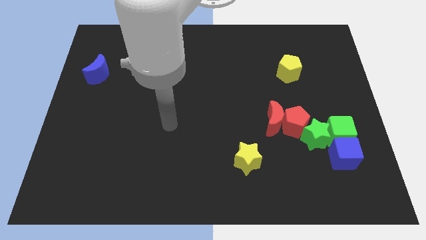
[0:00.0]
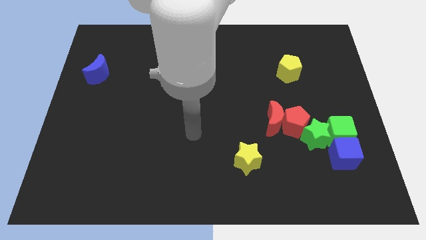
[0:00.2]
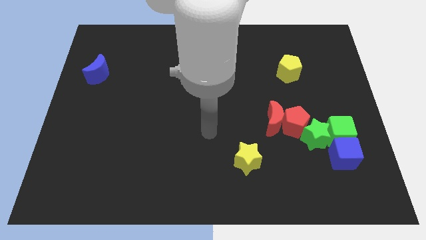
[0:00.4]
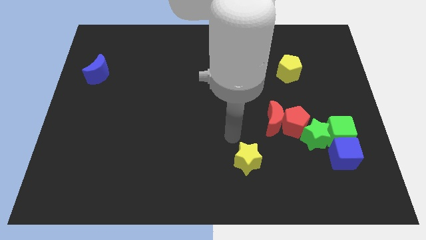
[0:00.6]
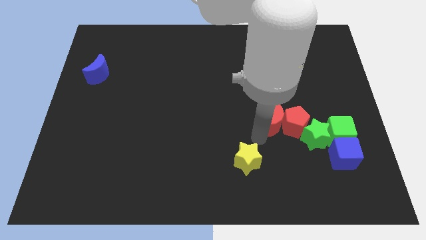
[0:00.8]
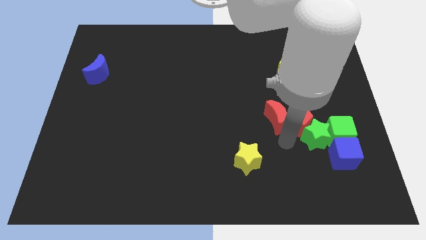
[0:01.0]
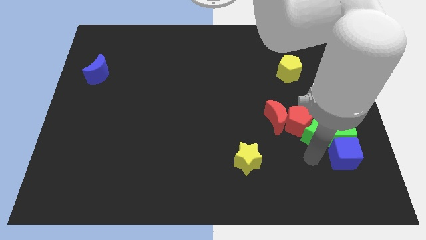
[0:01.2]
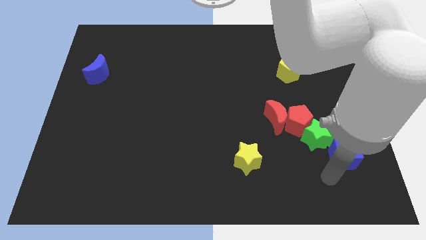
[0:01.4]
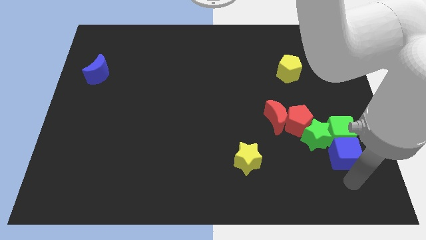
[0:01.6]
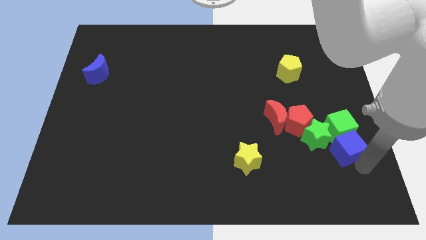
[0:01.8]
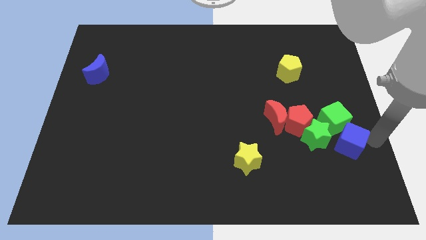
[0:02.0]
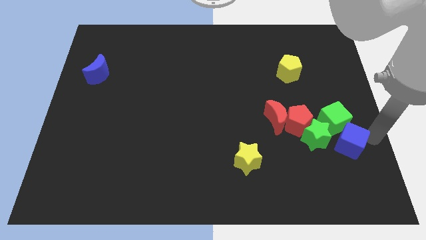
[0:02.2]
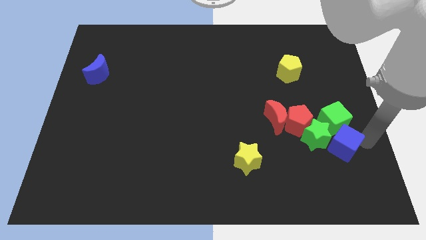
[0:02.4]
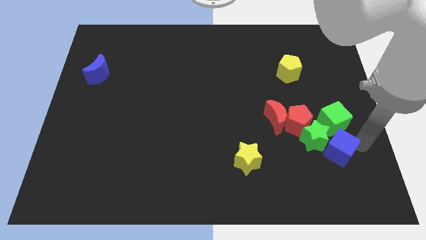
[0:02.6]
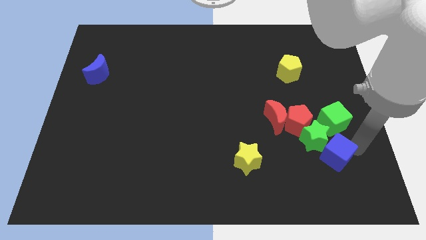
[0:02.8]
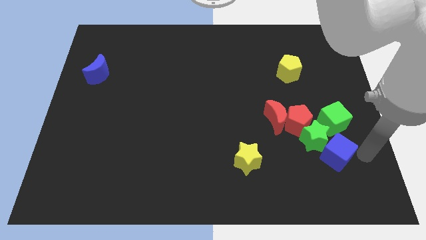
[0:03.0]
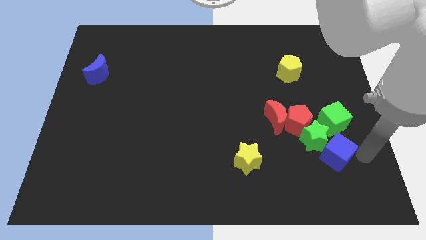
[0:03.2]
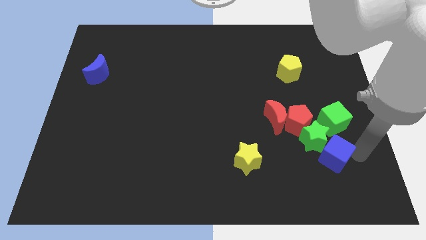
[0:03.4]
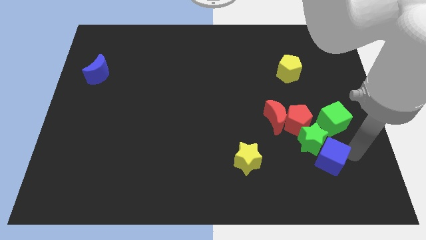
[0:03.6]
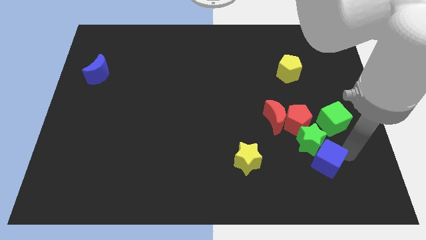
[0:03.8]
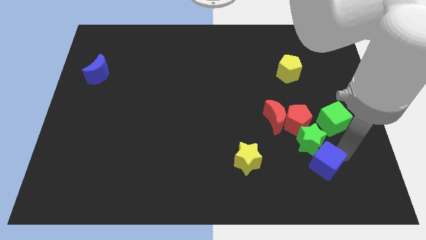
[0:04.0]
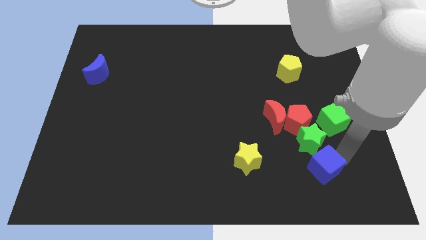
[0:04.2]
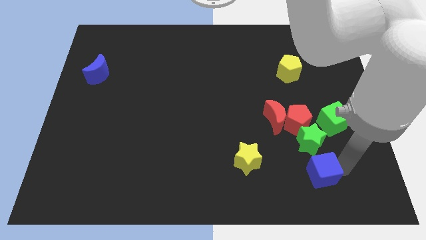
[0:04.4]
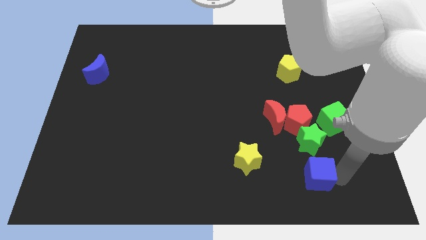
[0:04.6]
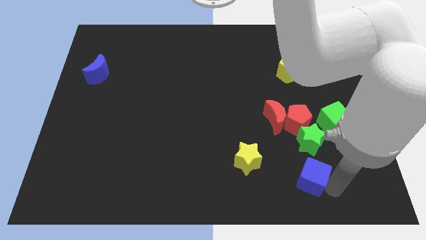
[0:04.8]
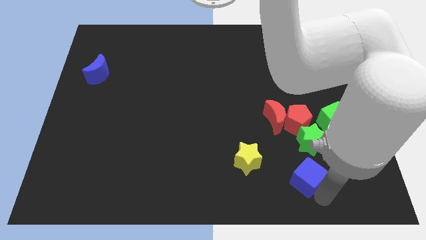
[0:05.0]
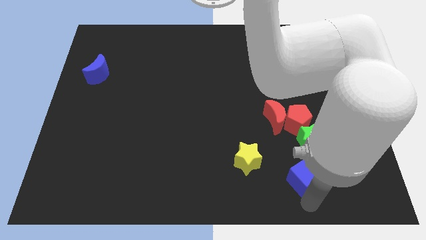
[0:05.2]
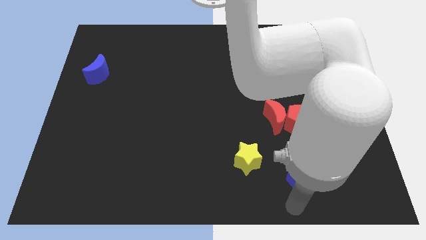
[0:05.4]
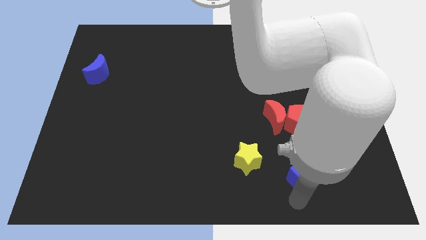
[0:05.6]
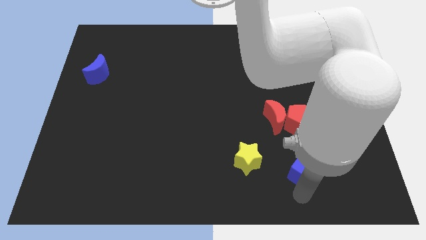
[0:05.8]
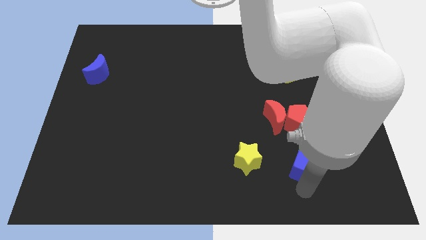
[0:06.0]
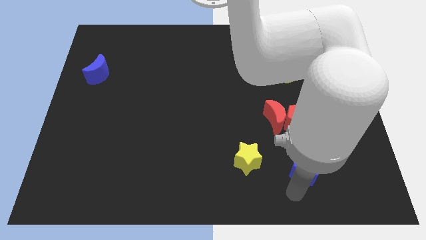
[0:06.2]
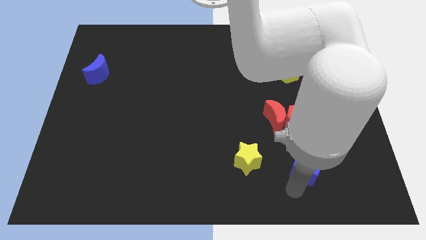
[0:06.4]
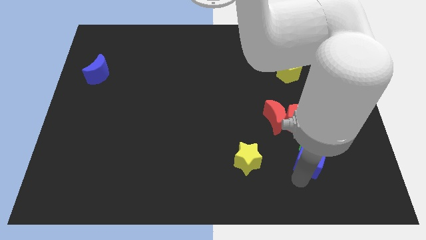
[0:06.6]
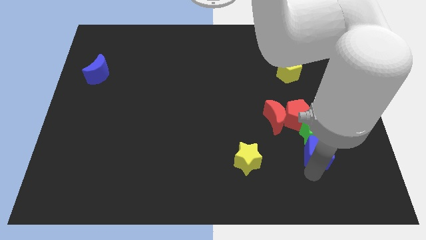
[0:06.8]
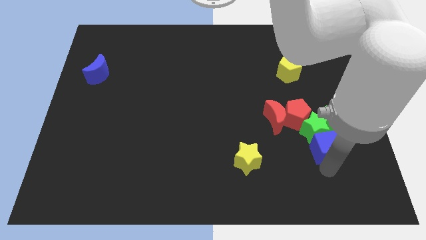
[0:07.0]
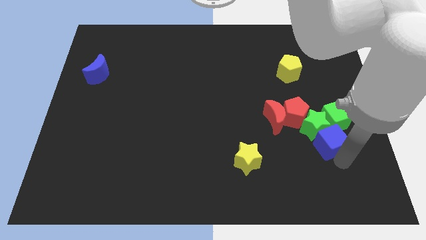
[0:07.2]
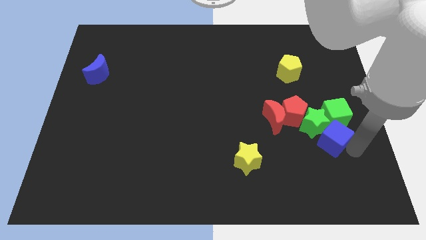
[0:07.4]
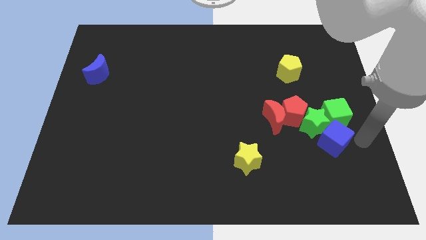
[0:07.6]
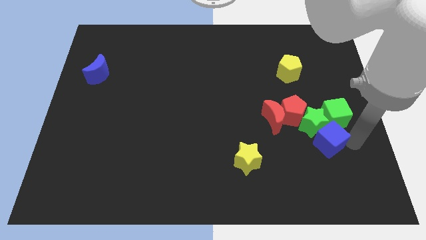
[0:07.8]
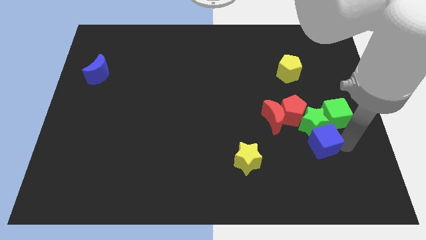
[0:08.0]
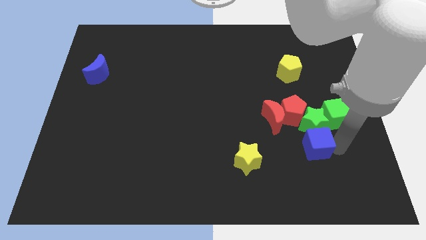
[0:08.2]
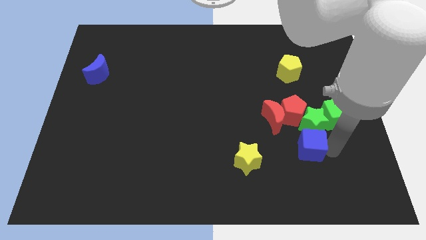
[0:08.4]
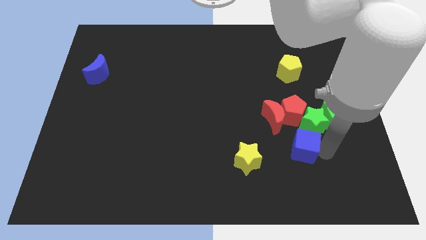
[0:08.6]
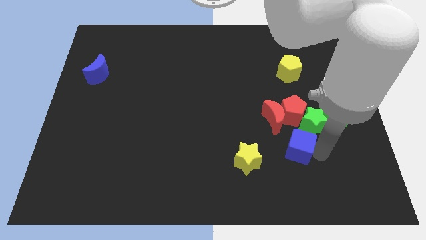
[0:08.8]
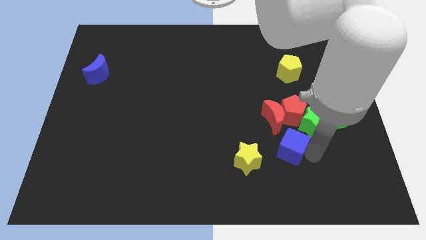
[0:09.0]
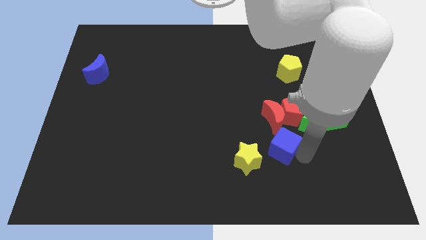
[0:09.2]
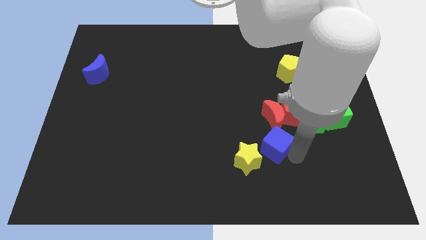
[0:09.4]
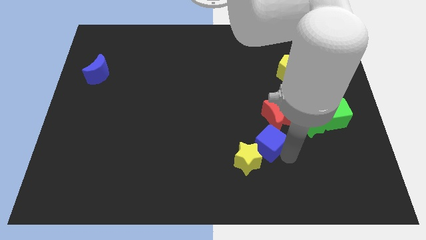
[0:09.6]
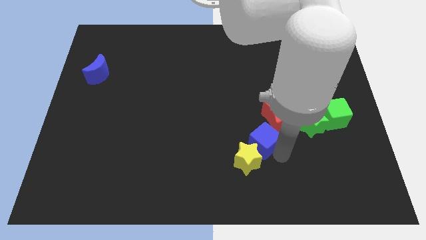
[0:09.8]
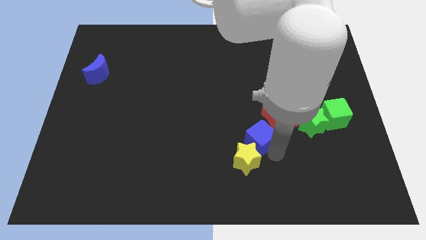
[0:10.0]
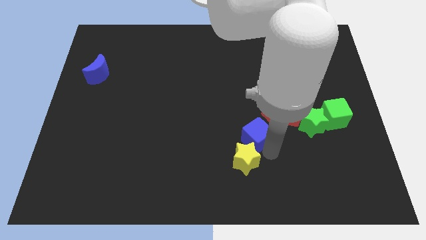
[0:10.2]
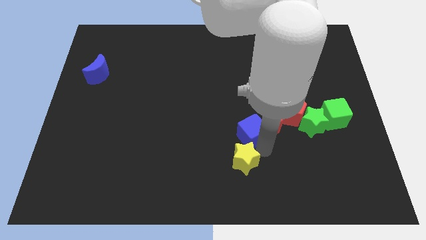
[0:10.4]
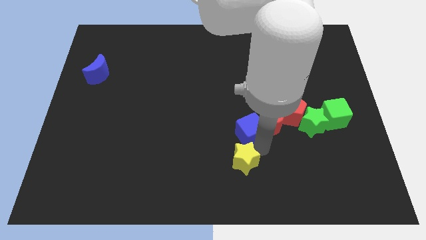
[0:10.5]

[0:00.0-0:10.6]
push the blue cube to the middle

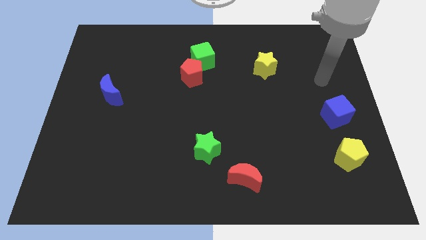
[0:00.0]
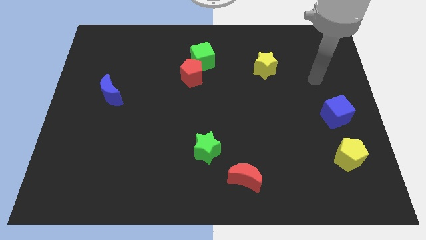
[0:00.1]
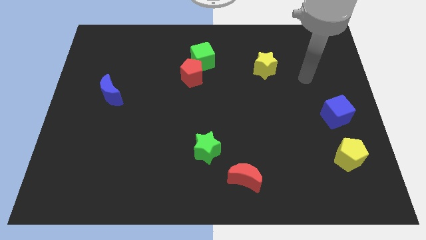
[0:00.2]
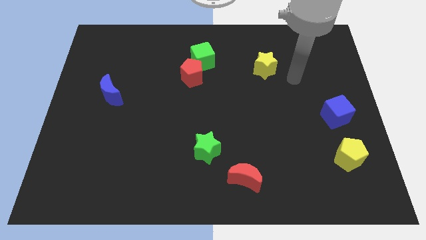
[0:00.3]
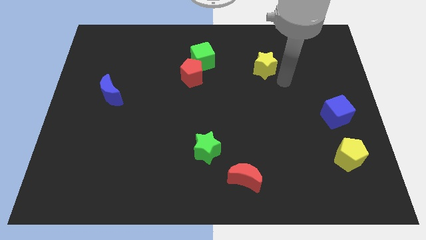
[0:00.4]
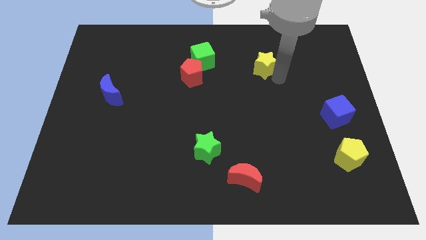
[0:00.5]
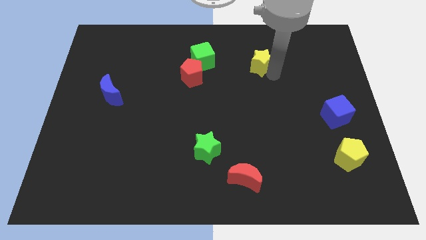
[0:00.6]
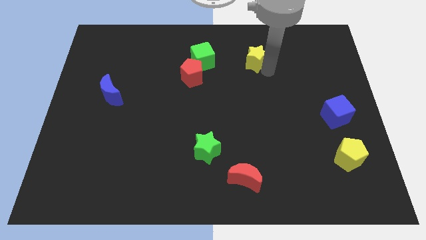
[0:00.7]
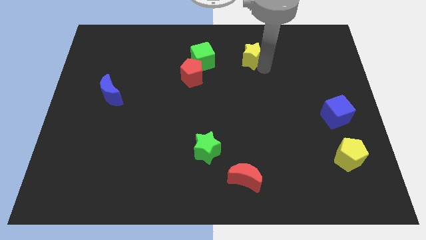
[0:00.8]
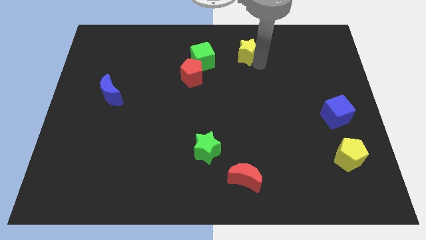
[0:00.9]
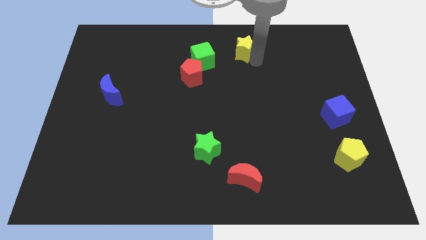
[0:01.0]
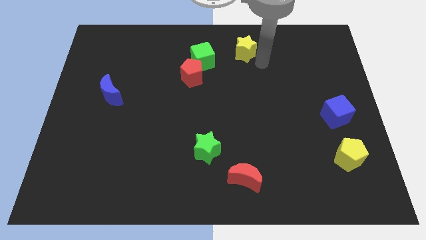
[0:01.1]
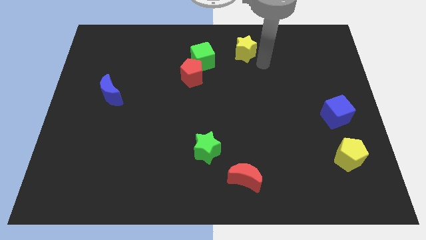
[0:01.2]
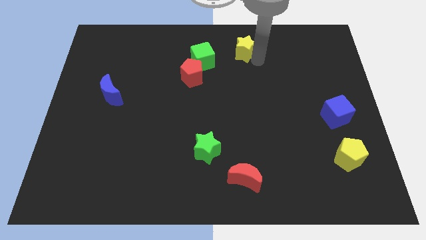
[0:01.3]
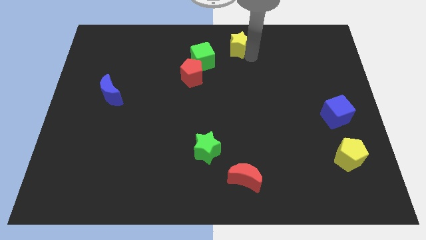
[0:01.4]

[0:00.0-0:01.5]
slide the yellow star to the towards your base
